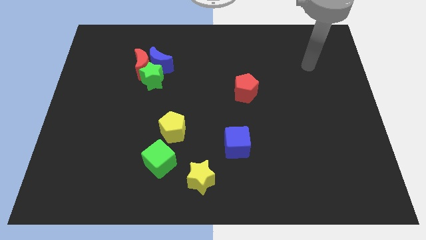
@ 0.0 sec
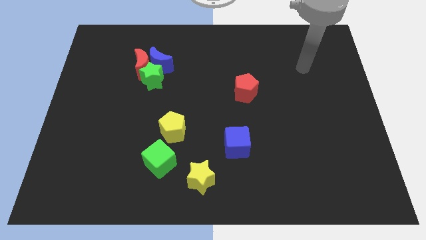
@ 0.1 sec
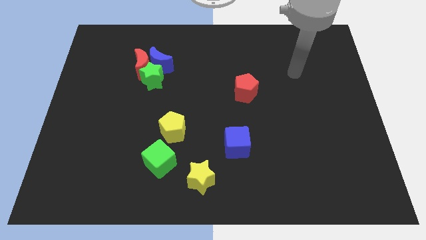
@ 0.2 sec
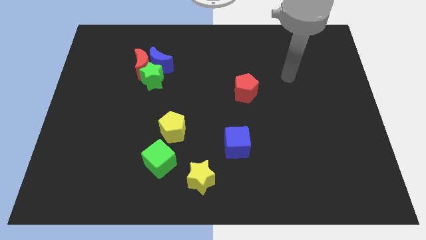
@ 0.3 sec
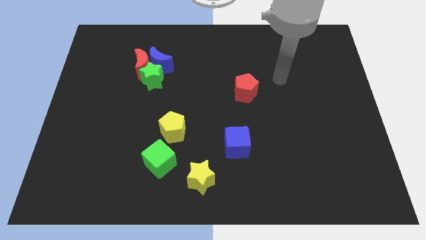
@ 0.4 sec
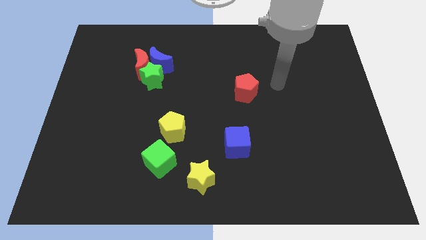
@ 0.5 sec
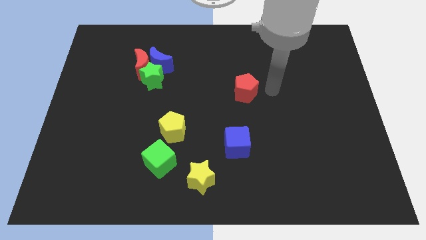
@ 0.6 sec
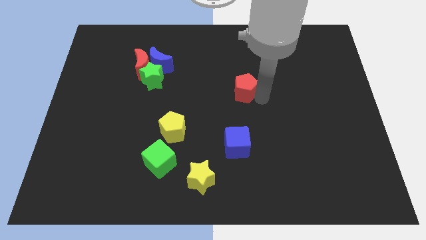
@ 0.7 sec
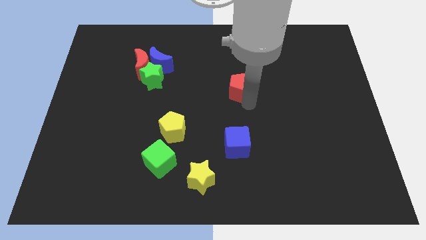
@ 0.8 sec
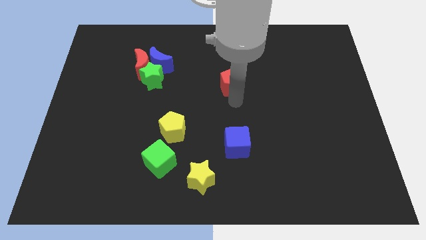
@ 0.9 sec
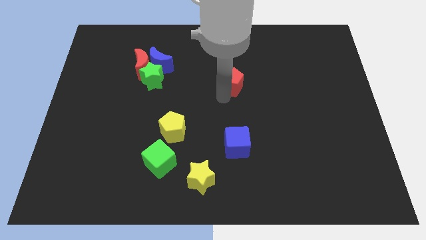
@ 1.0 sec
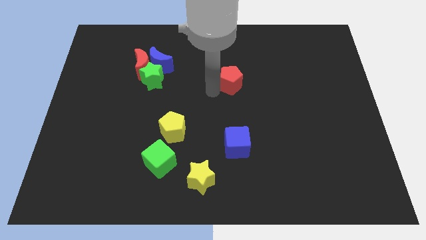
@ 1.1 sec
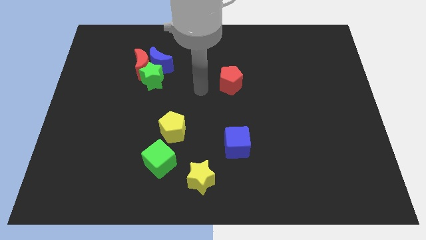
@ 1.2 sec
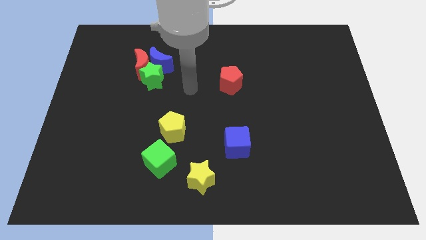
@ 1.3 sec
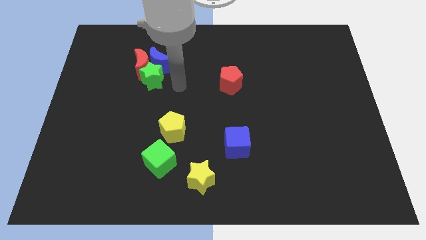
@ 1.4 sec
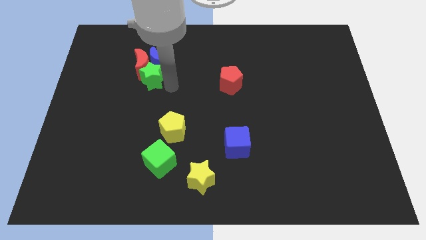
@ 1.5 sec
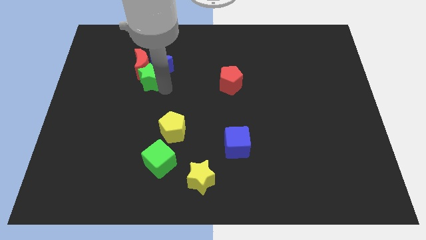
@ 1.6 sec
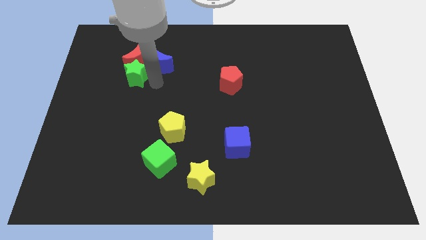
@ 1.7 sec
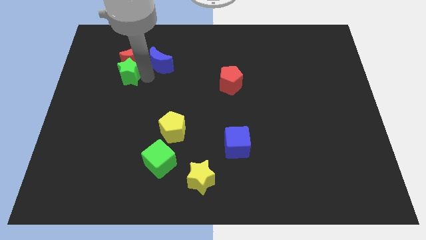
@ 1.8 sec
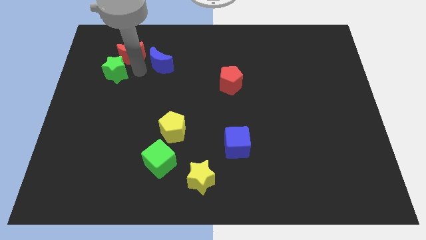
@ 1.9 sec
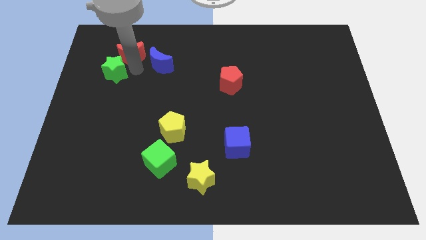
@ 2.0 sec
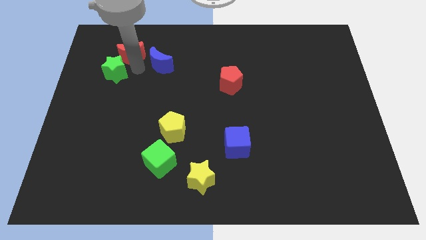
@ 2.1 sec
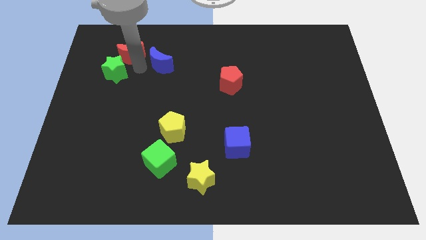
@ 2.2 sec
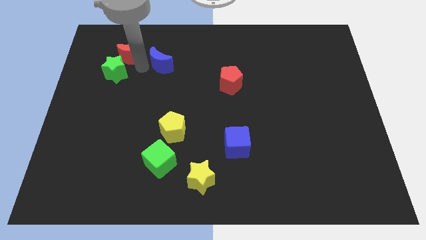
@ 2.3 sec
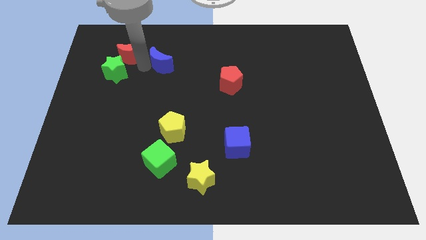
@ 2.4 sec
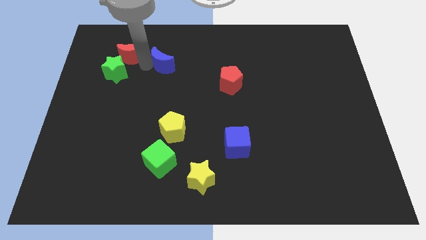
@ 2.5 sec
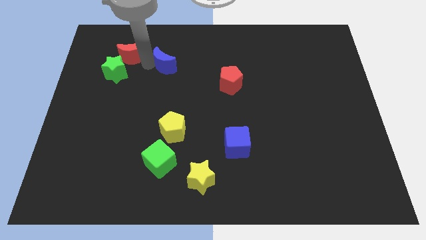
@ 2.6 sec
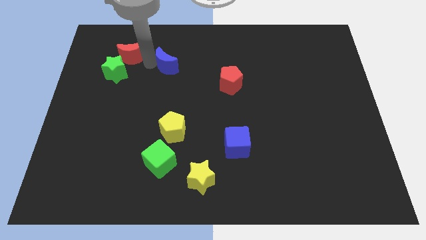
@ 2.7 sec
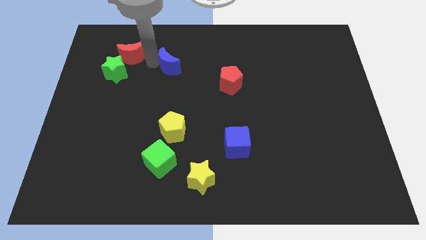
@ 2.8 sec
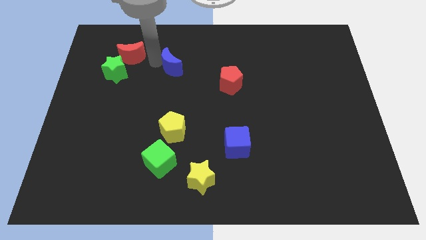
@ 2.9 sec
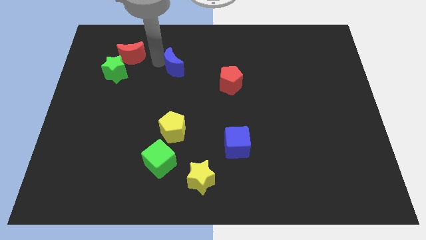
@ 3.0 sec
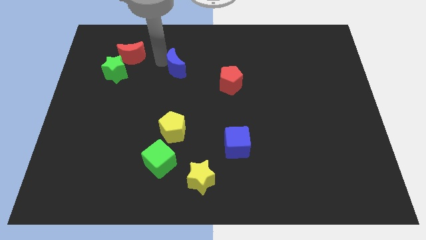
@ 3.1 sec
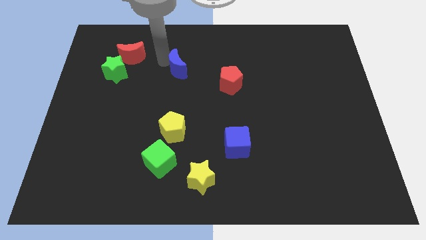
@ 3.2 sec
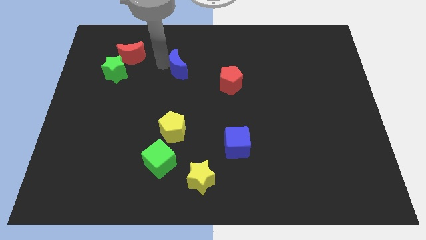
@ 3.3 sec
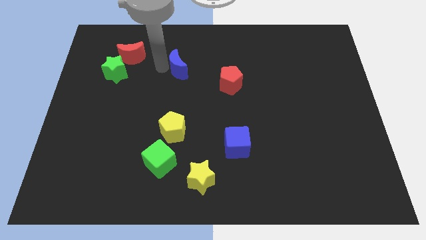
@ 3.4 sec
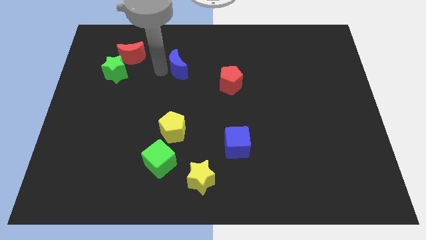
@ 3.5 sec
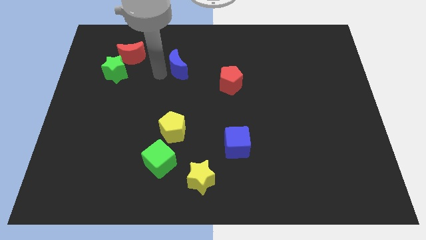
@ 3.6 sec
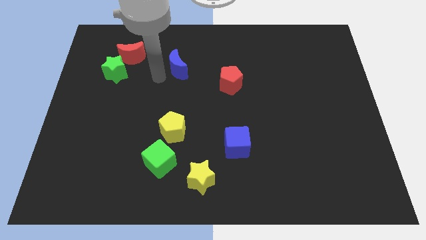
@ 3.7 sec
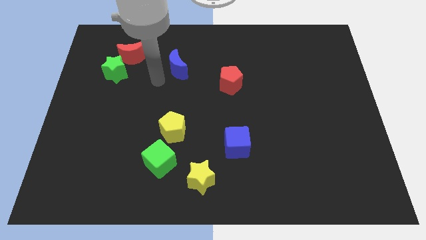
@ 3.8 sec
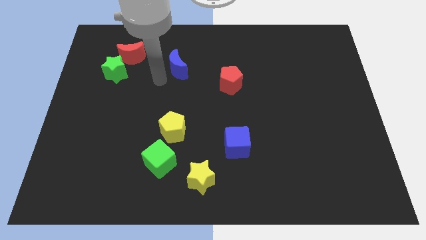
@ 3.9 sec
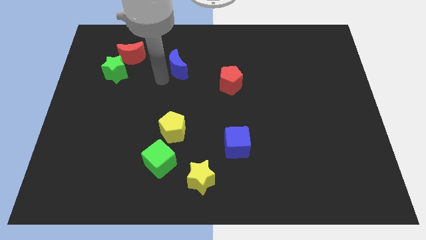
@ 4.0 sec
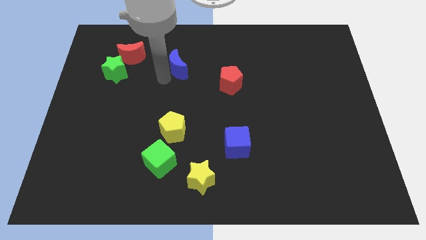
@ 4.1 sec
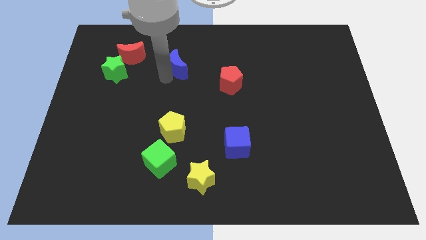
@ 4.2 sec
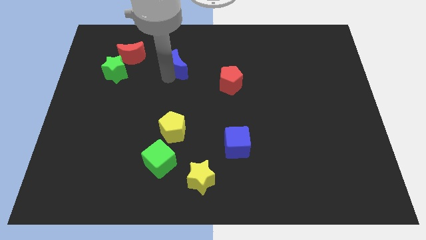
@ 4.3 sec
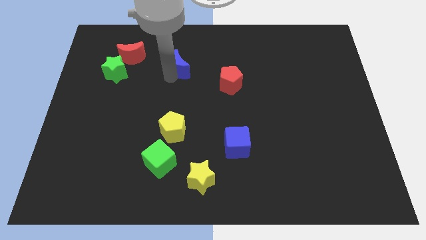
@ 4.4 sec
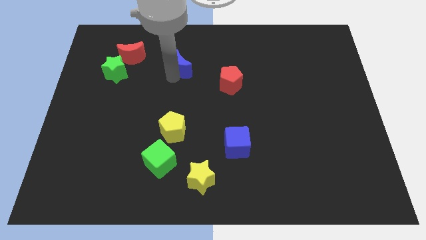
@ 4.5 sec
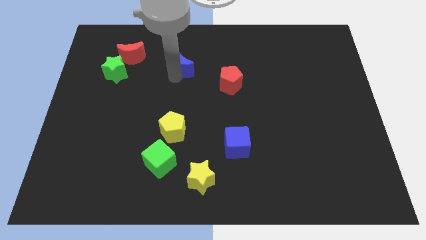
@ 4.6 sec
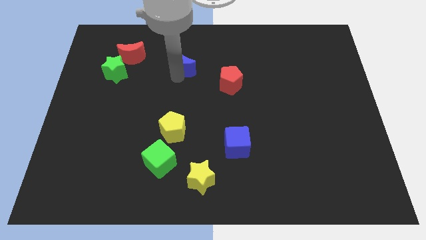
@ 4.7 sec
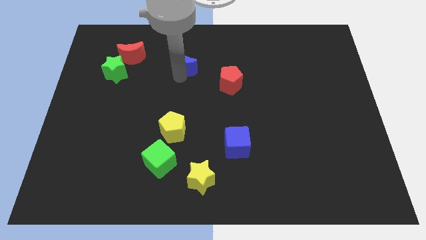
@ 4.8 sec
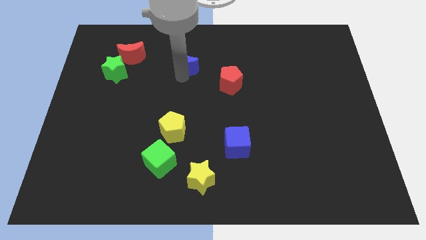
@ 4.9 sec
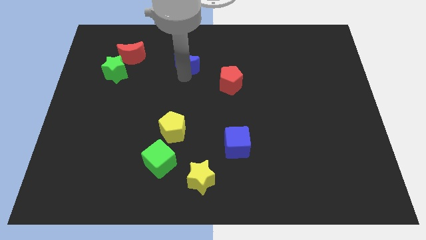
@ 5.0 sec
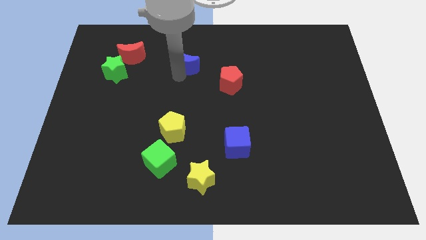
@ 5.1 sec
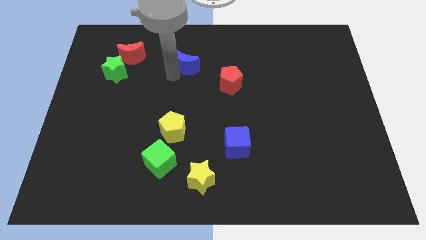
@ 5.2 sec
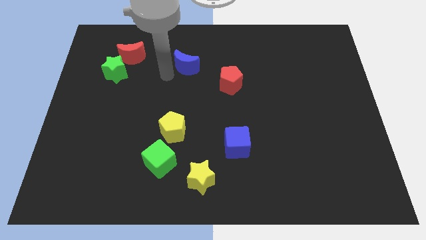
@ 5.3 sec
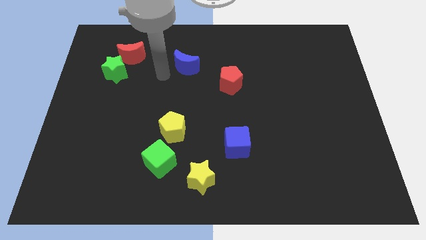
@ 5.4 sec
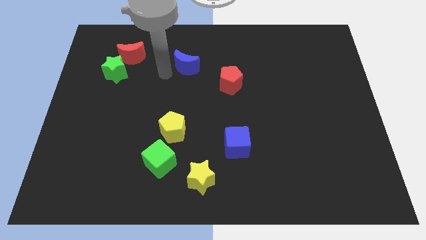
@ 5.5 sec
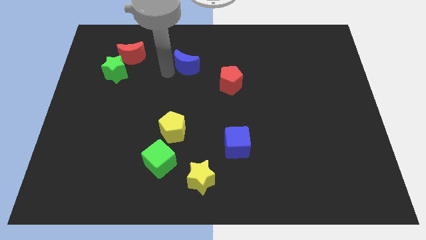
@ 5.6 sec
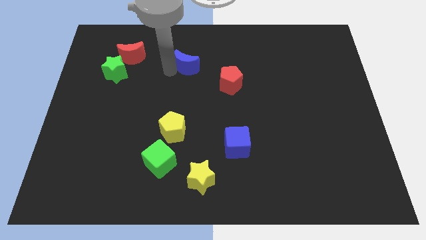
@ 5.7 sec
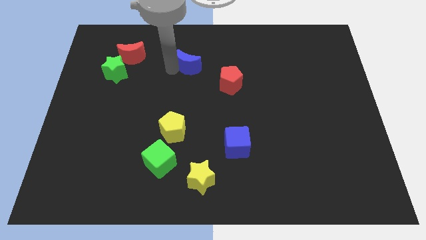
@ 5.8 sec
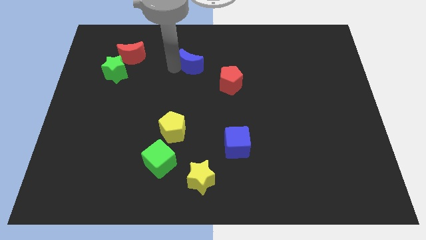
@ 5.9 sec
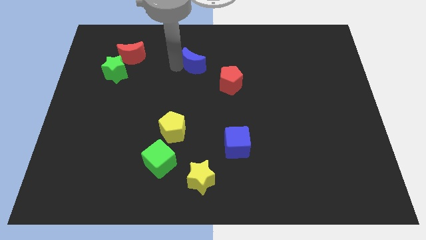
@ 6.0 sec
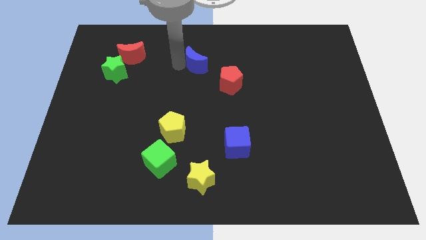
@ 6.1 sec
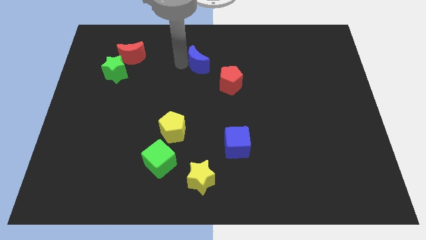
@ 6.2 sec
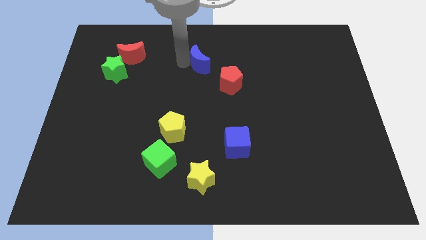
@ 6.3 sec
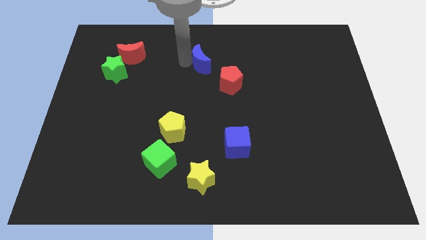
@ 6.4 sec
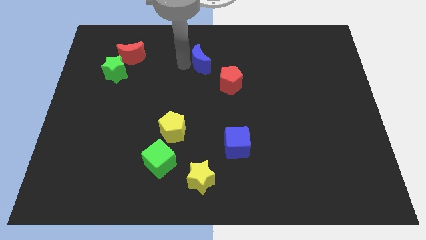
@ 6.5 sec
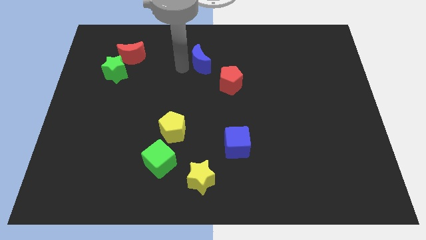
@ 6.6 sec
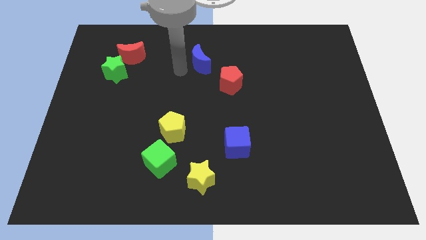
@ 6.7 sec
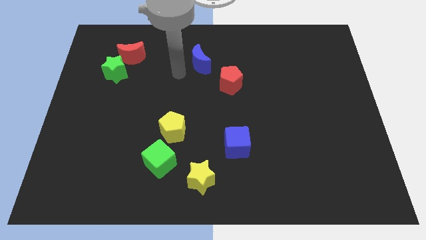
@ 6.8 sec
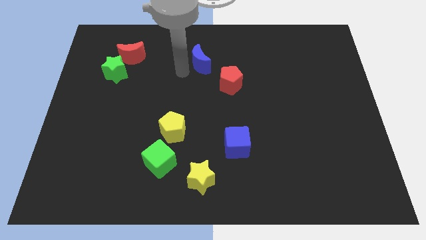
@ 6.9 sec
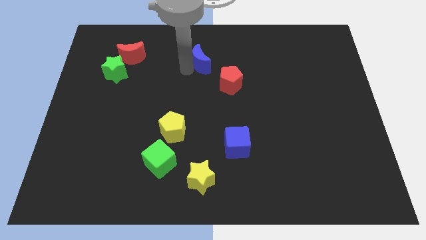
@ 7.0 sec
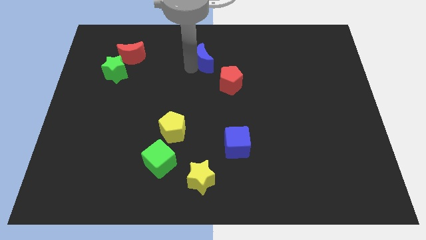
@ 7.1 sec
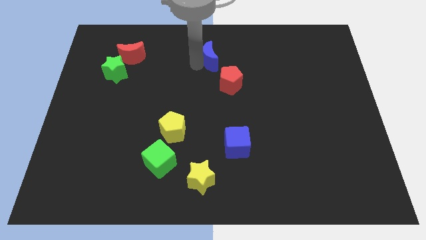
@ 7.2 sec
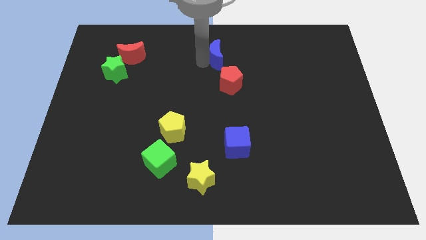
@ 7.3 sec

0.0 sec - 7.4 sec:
push the blue moon to the top side of the red pentagon

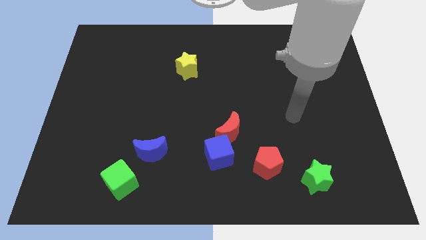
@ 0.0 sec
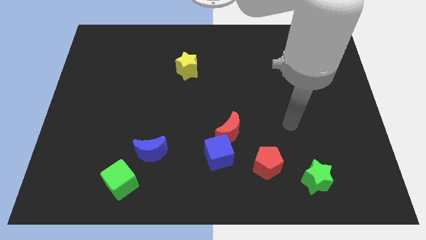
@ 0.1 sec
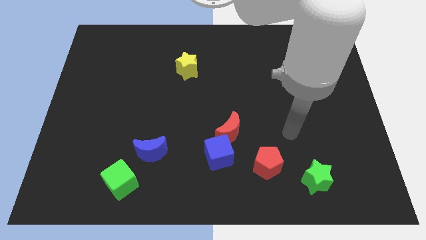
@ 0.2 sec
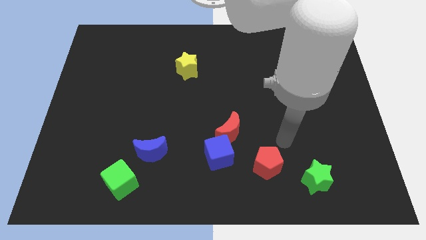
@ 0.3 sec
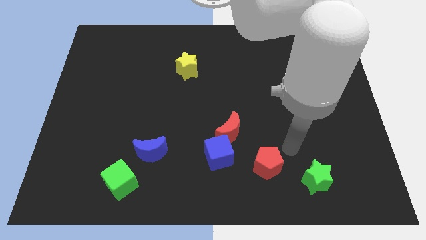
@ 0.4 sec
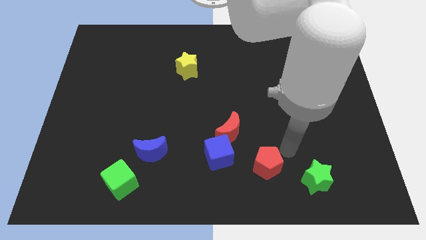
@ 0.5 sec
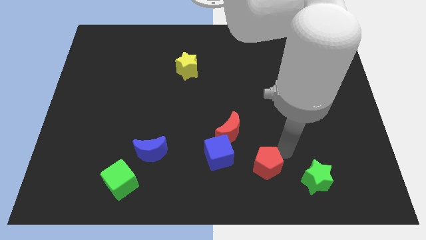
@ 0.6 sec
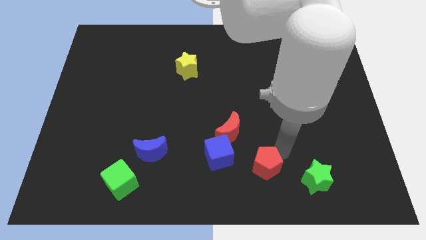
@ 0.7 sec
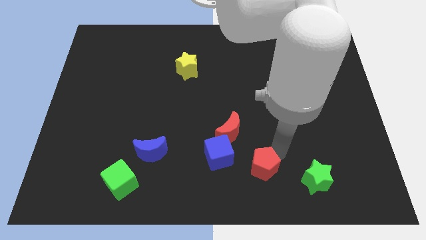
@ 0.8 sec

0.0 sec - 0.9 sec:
move the red pentagon to the bottom right of the blue cube
